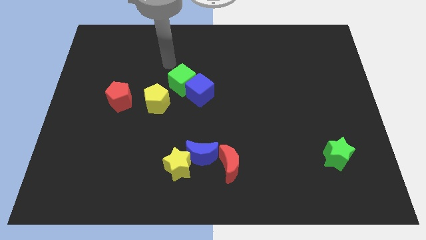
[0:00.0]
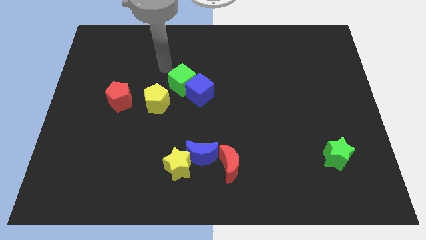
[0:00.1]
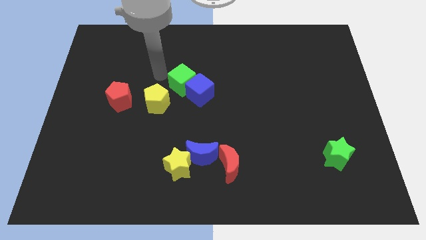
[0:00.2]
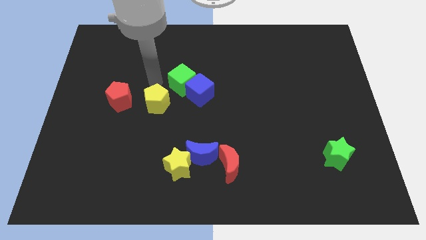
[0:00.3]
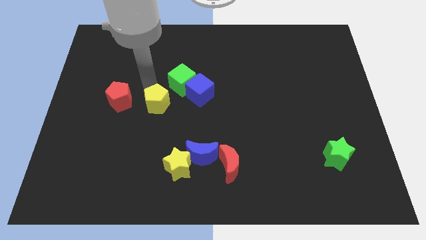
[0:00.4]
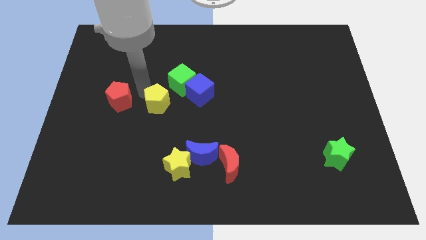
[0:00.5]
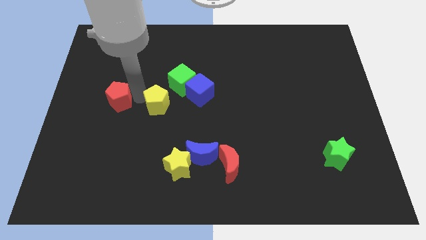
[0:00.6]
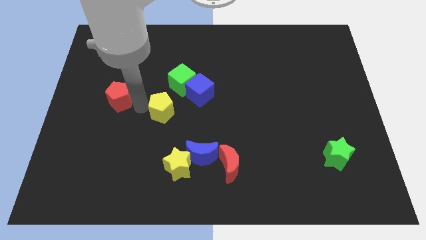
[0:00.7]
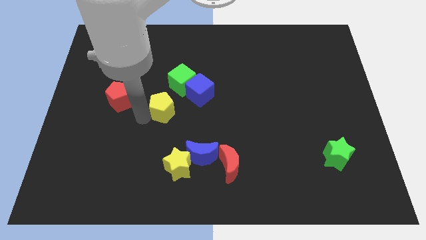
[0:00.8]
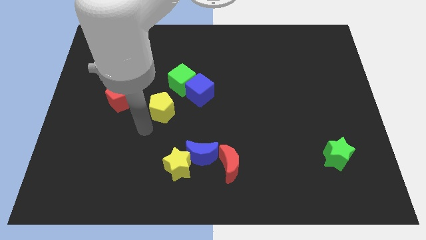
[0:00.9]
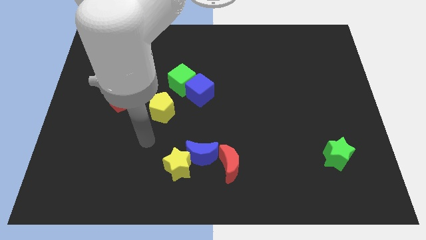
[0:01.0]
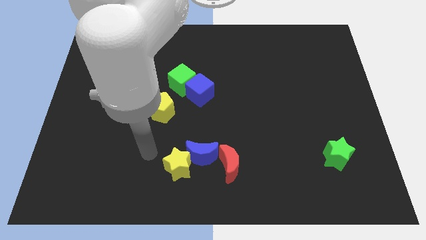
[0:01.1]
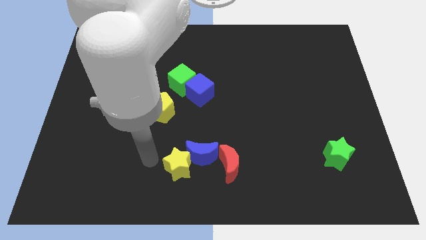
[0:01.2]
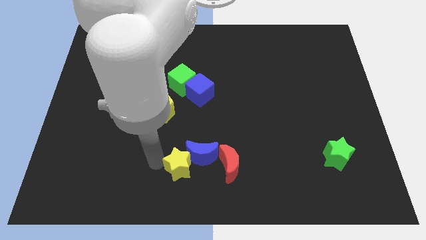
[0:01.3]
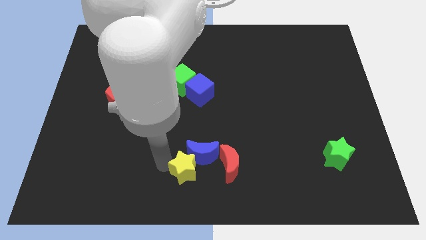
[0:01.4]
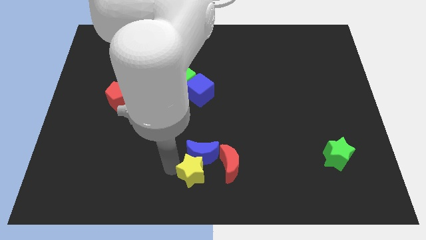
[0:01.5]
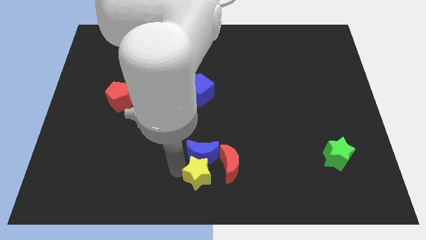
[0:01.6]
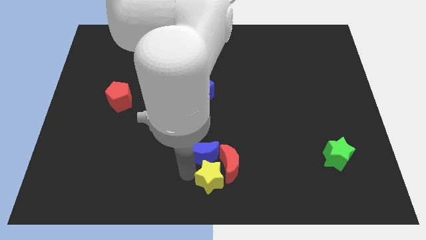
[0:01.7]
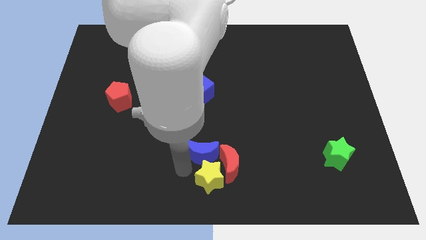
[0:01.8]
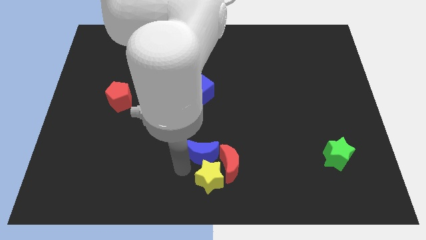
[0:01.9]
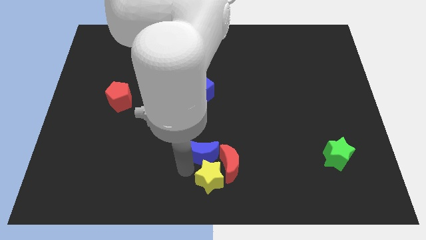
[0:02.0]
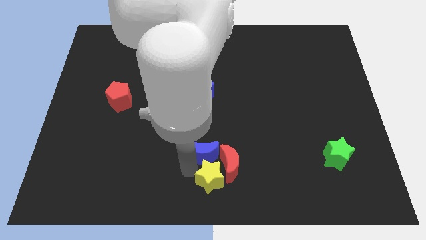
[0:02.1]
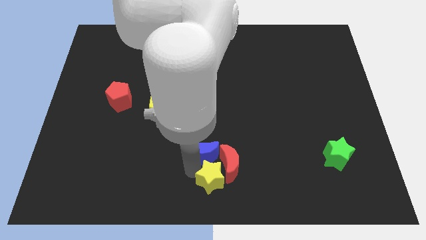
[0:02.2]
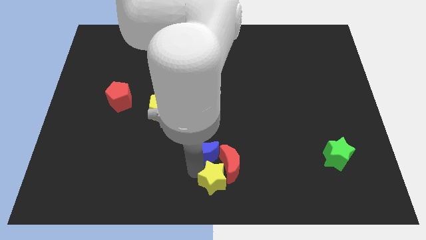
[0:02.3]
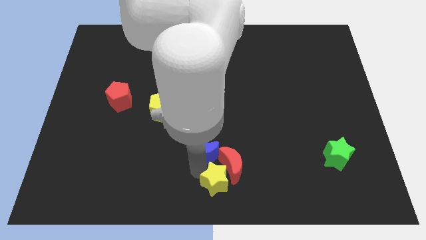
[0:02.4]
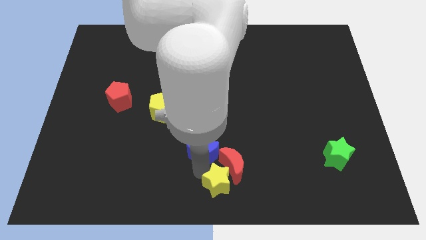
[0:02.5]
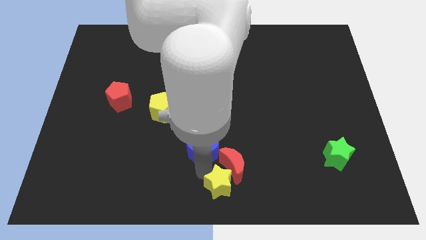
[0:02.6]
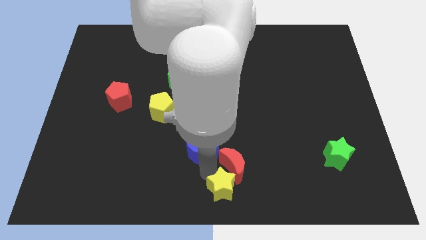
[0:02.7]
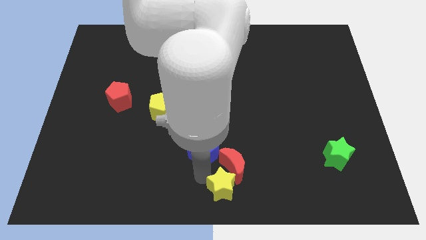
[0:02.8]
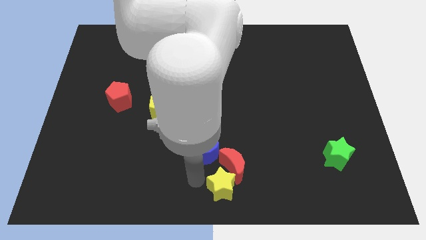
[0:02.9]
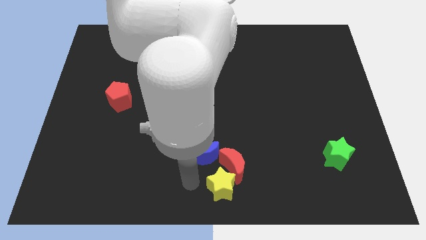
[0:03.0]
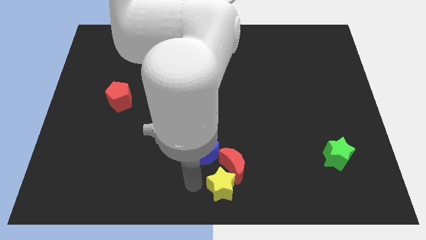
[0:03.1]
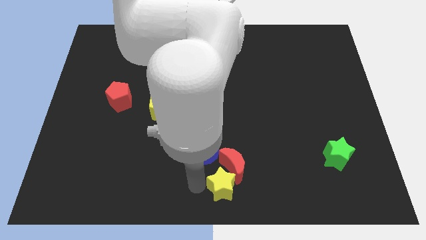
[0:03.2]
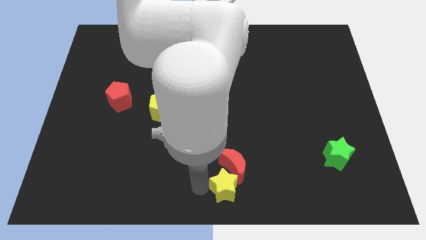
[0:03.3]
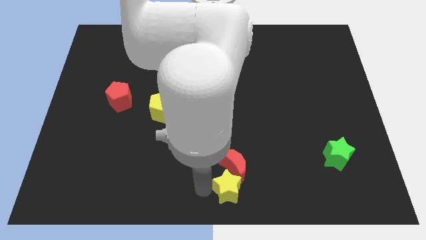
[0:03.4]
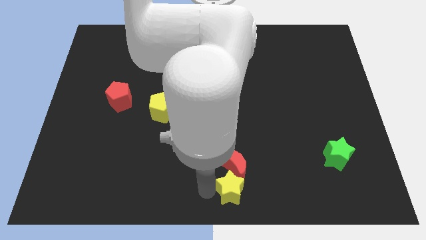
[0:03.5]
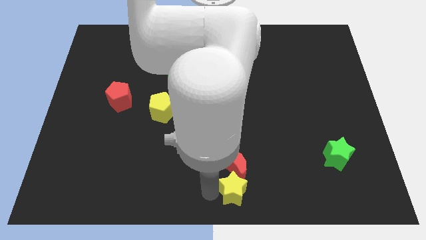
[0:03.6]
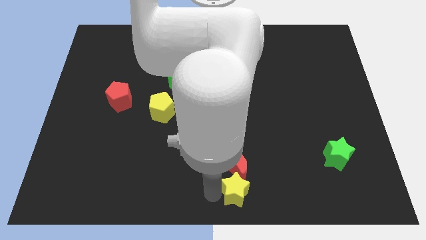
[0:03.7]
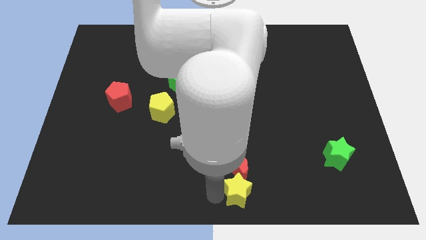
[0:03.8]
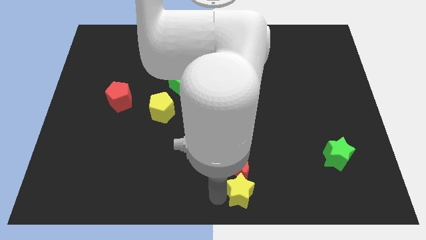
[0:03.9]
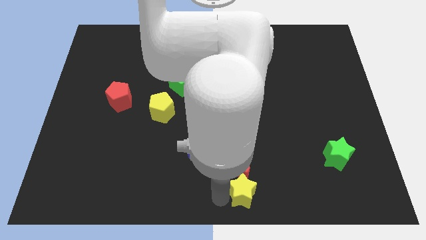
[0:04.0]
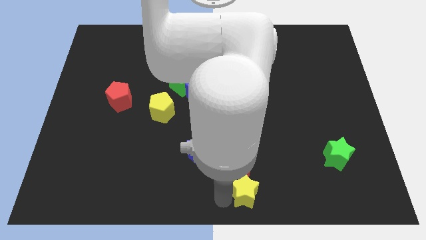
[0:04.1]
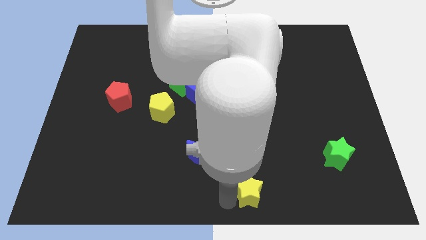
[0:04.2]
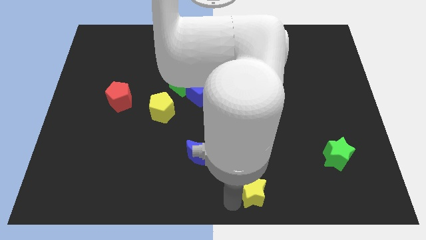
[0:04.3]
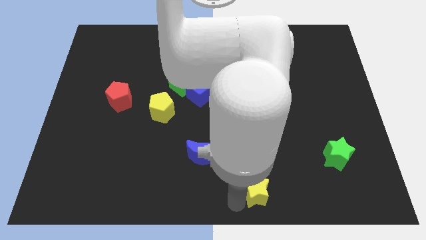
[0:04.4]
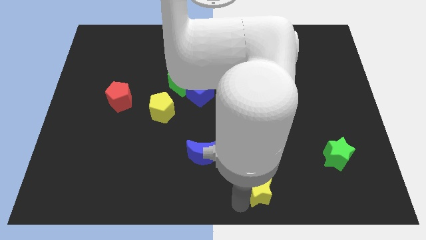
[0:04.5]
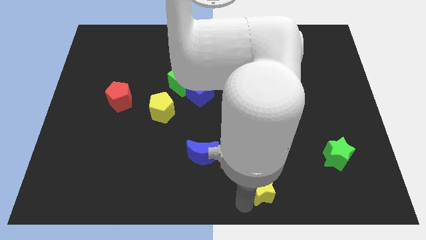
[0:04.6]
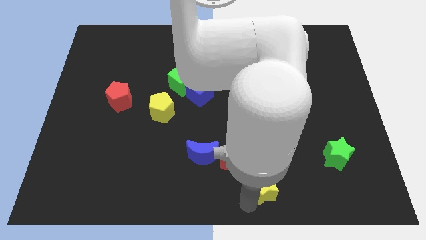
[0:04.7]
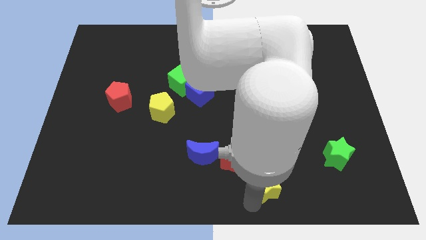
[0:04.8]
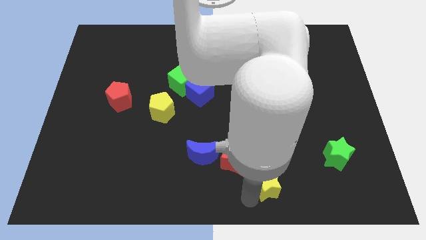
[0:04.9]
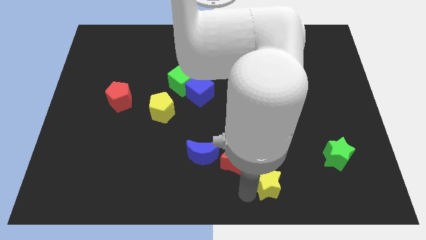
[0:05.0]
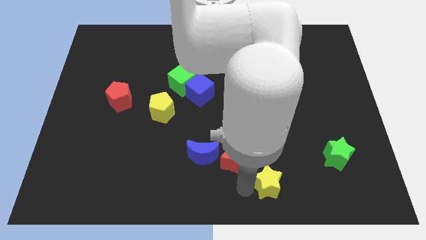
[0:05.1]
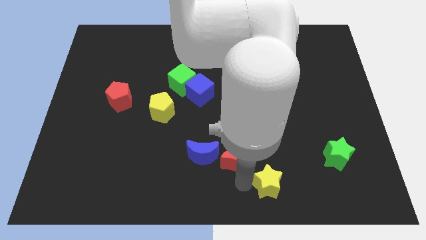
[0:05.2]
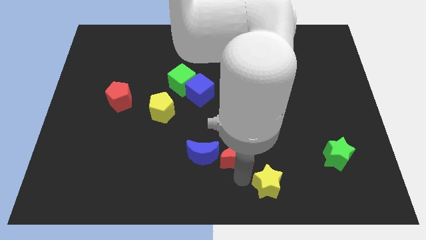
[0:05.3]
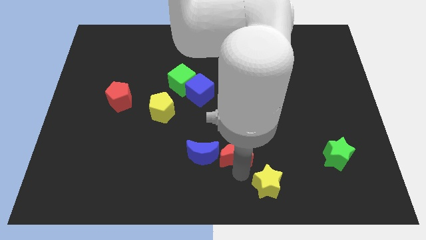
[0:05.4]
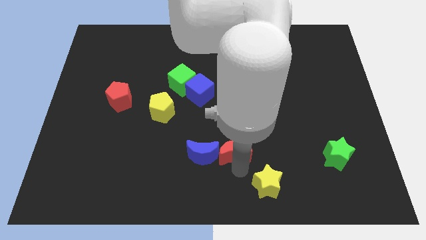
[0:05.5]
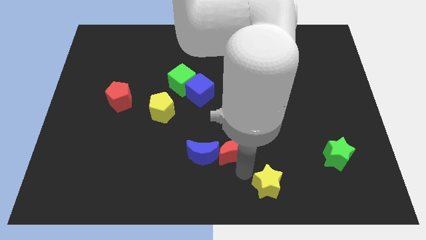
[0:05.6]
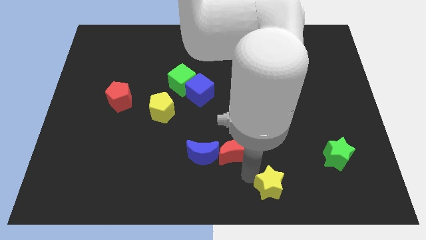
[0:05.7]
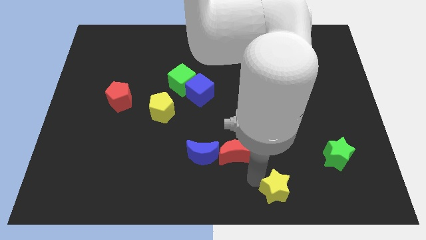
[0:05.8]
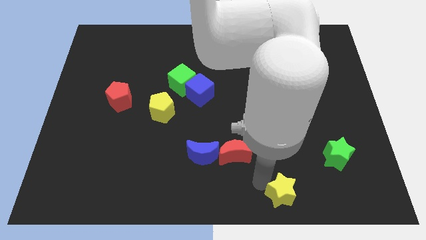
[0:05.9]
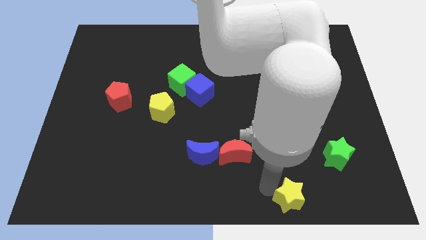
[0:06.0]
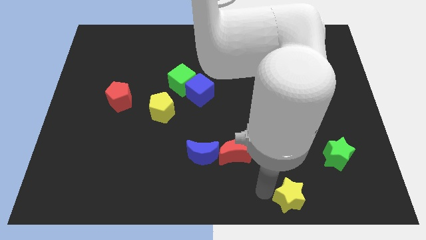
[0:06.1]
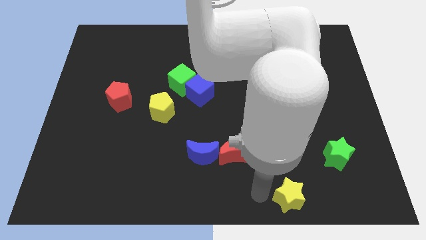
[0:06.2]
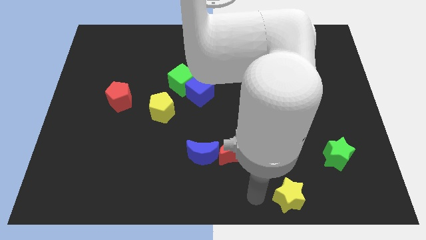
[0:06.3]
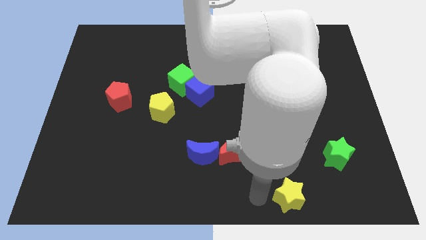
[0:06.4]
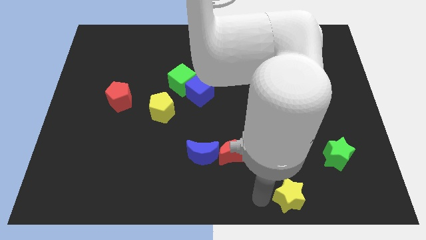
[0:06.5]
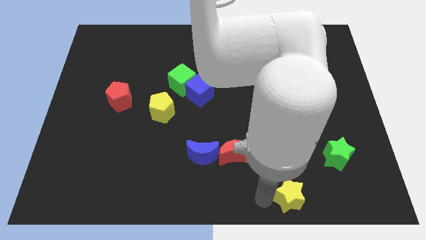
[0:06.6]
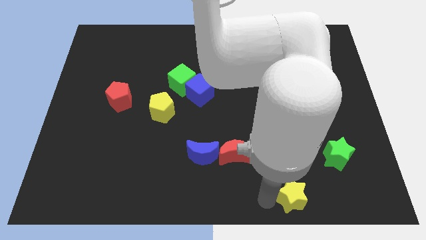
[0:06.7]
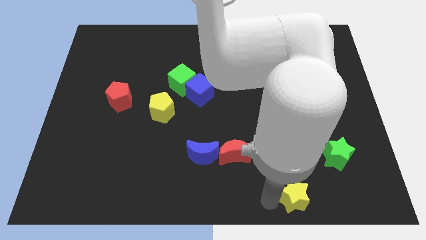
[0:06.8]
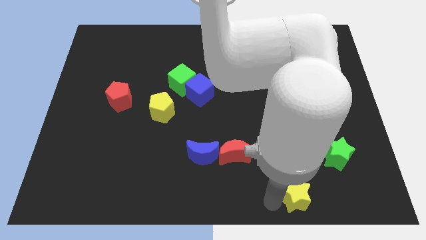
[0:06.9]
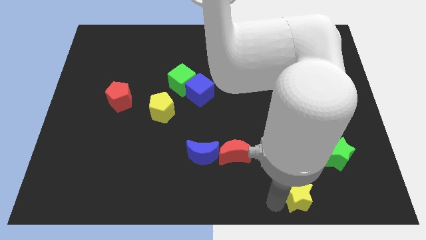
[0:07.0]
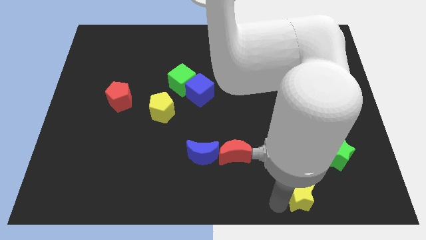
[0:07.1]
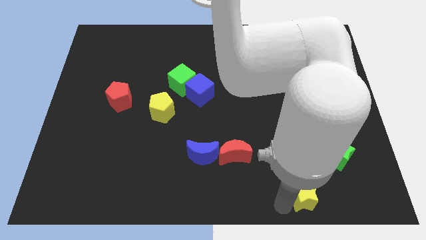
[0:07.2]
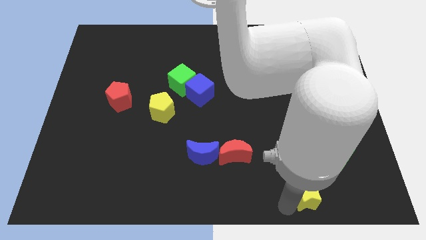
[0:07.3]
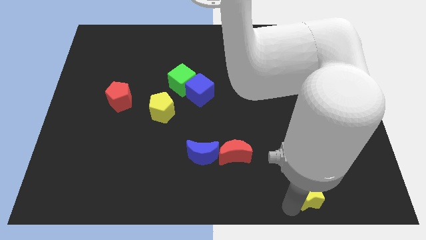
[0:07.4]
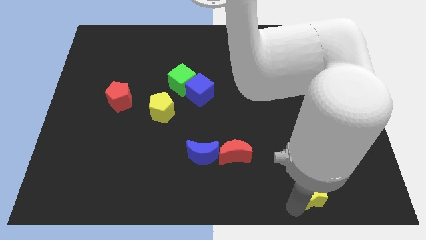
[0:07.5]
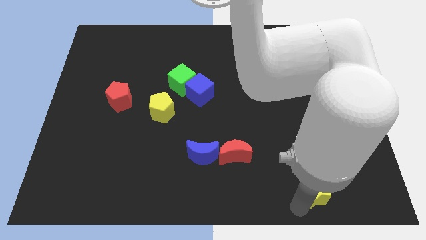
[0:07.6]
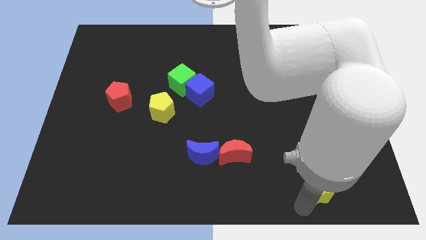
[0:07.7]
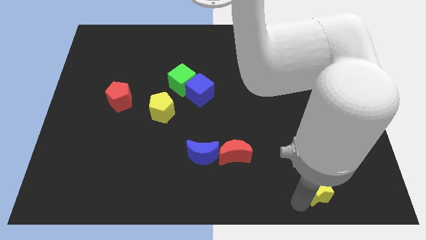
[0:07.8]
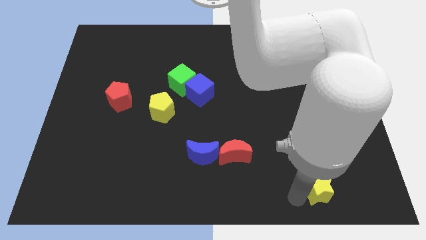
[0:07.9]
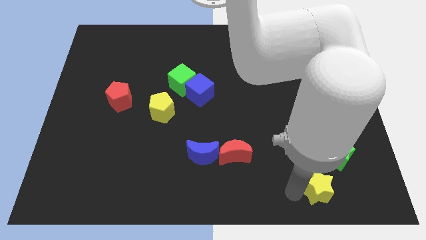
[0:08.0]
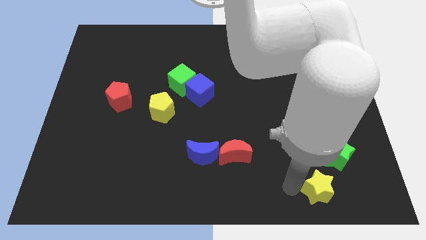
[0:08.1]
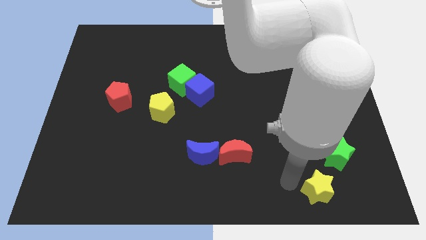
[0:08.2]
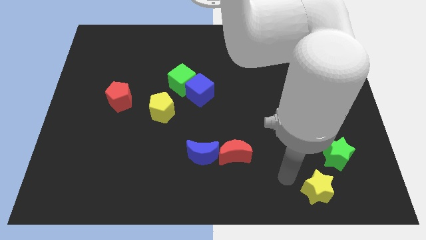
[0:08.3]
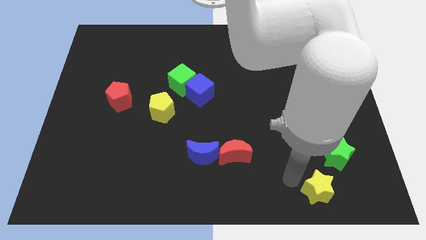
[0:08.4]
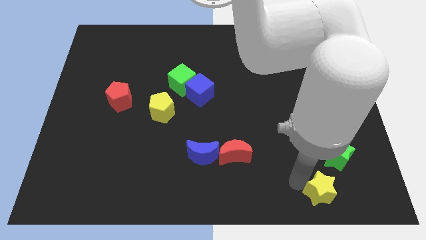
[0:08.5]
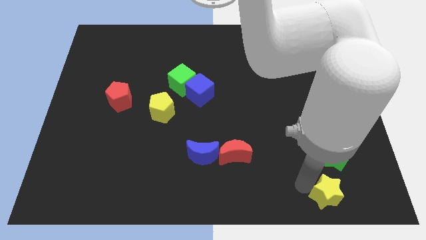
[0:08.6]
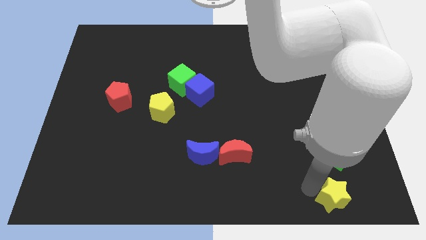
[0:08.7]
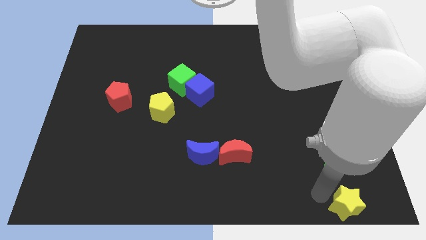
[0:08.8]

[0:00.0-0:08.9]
push the yellow star to the bottom right of the board
